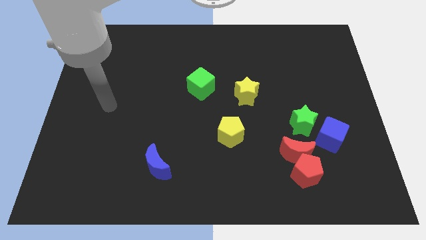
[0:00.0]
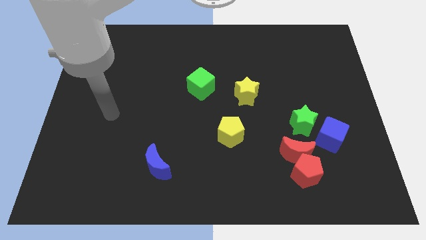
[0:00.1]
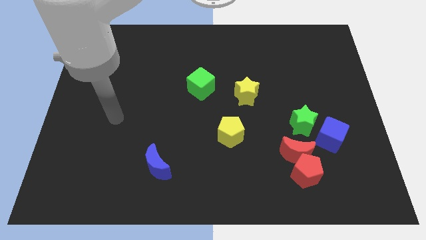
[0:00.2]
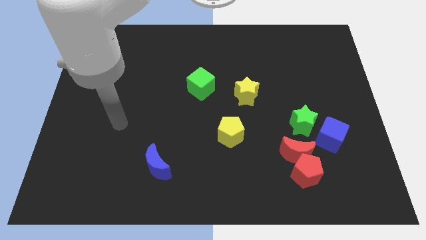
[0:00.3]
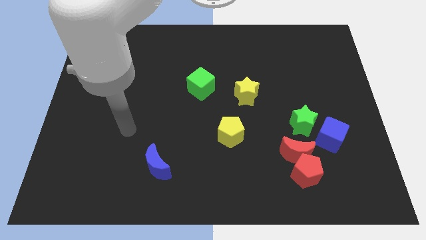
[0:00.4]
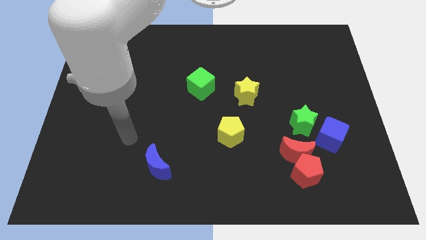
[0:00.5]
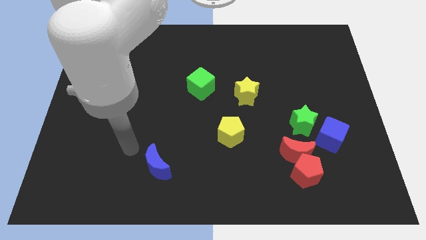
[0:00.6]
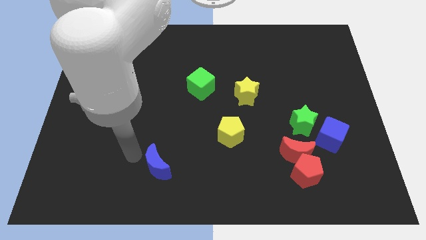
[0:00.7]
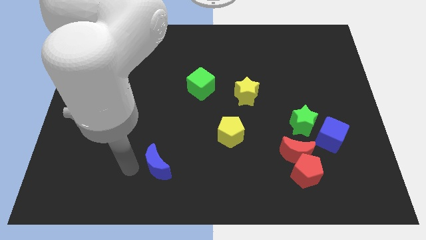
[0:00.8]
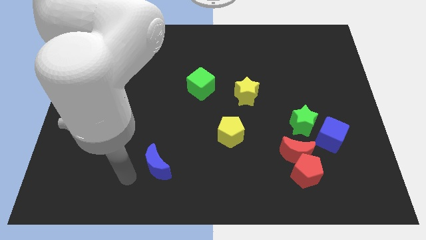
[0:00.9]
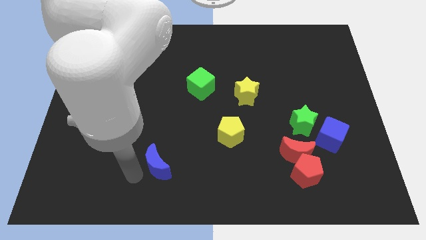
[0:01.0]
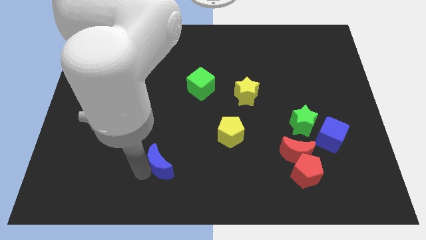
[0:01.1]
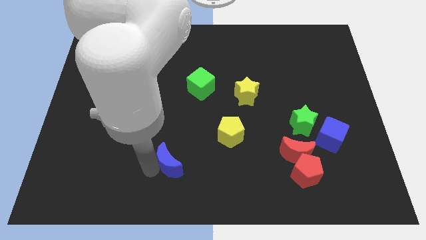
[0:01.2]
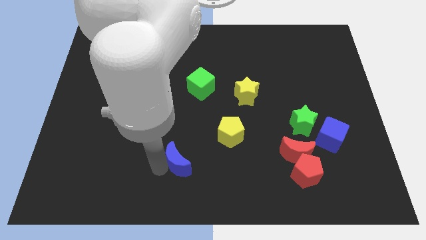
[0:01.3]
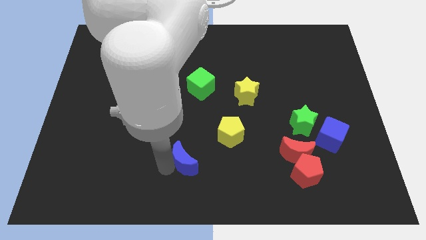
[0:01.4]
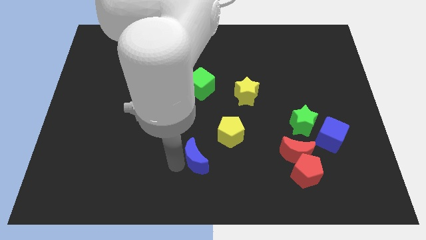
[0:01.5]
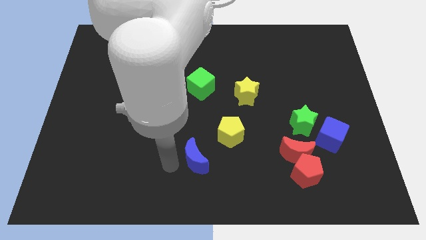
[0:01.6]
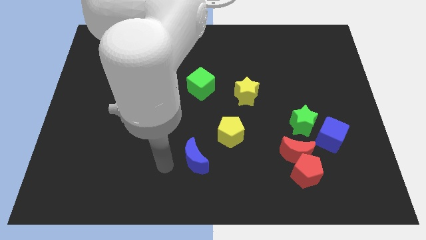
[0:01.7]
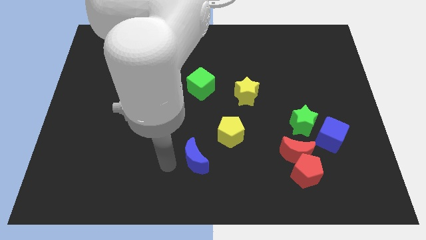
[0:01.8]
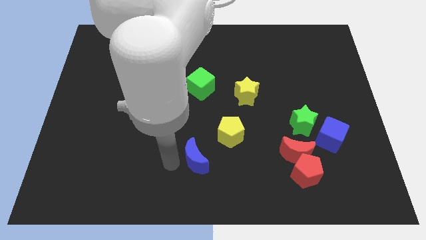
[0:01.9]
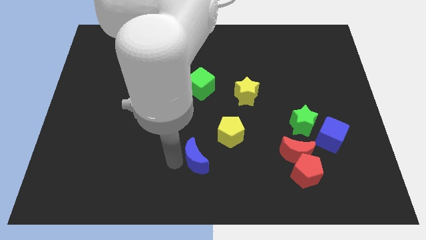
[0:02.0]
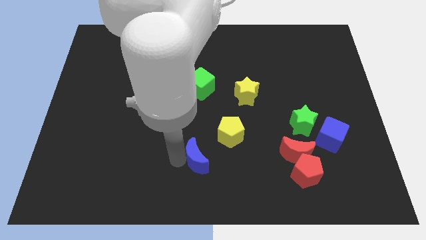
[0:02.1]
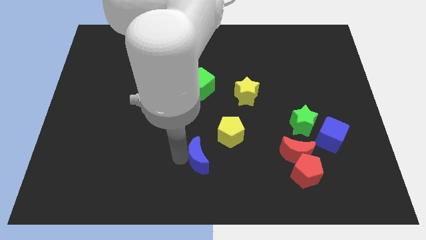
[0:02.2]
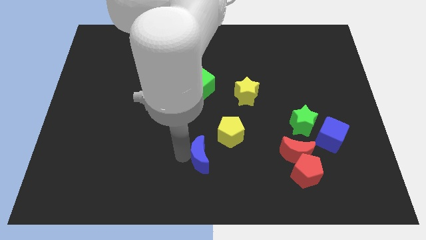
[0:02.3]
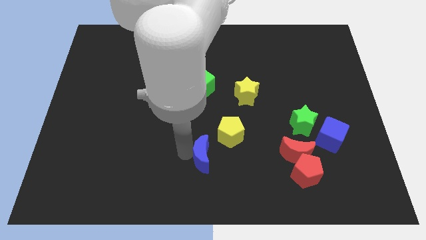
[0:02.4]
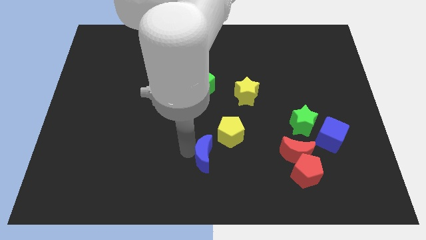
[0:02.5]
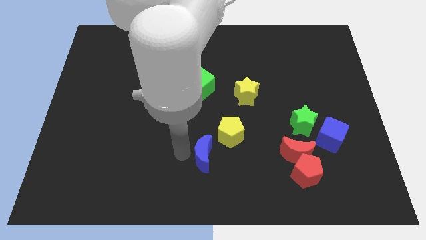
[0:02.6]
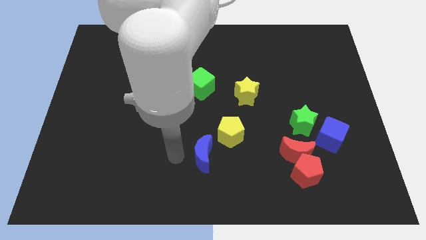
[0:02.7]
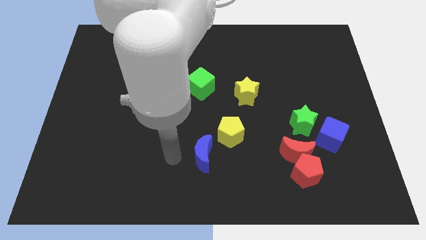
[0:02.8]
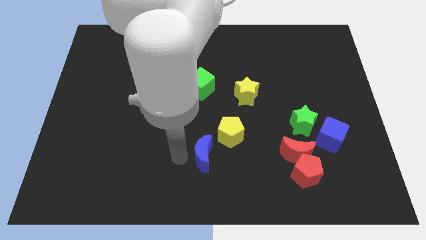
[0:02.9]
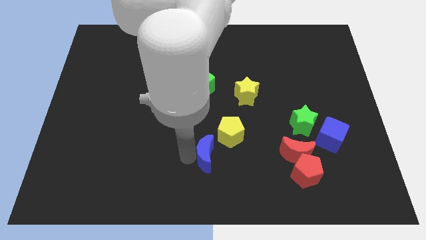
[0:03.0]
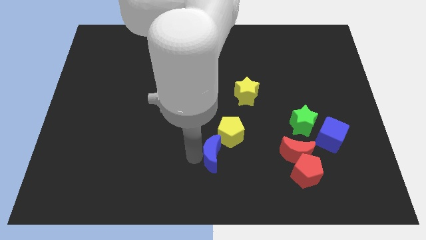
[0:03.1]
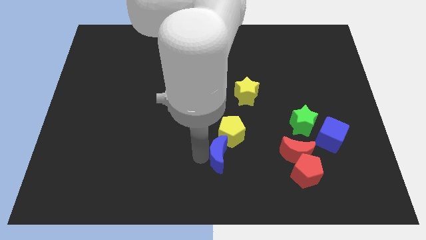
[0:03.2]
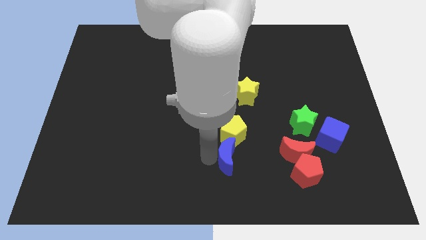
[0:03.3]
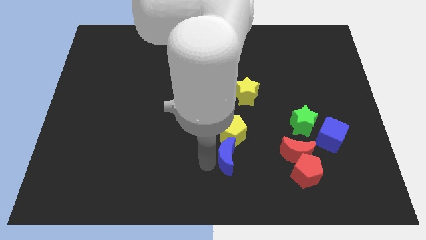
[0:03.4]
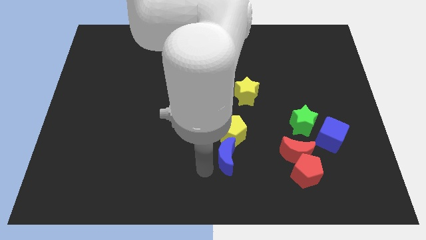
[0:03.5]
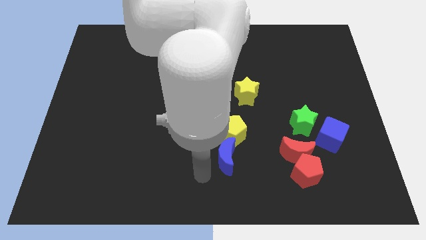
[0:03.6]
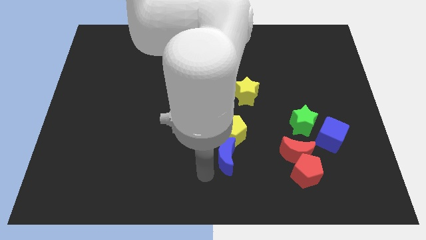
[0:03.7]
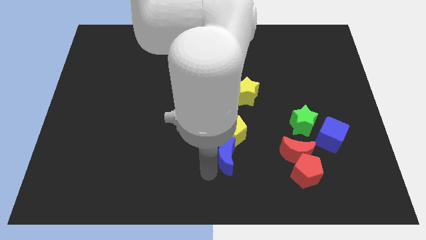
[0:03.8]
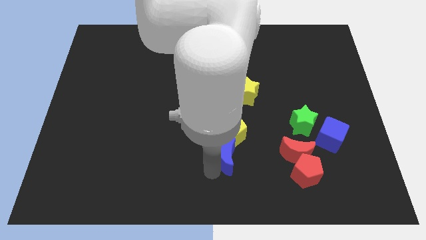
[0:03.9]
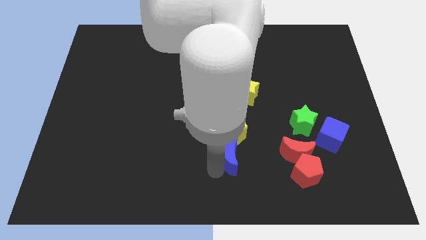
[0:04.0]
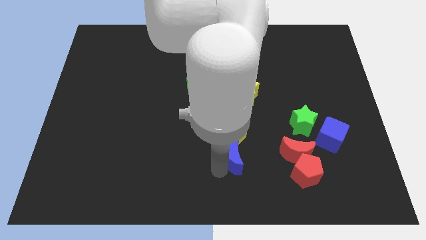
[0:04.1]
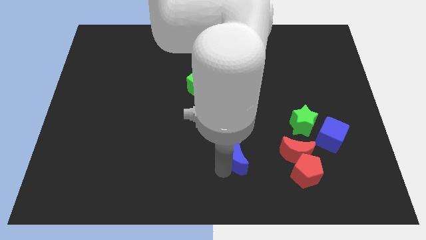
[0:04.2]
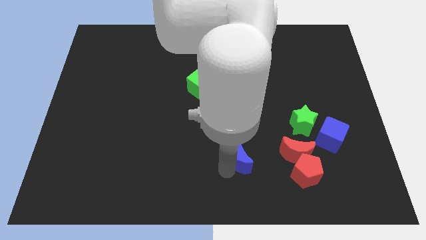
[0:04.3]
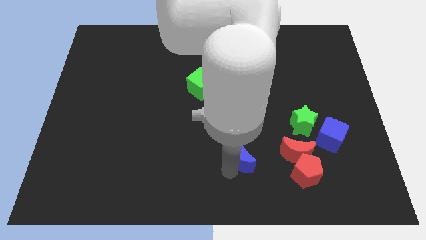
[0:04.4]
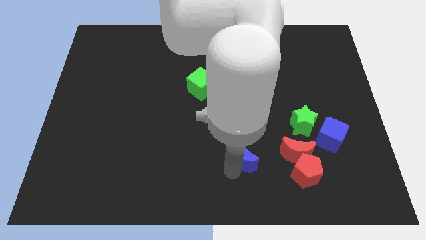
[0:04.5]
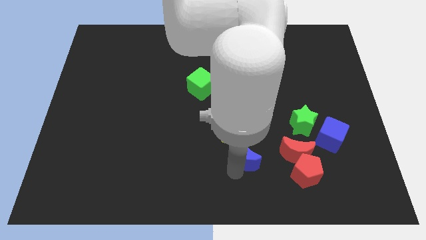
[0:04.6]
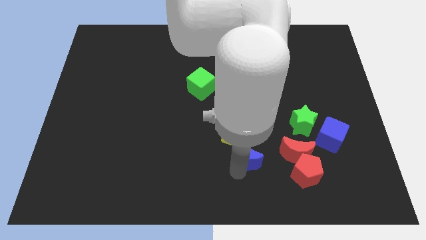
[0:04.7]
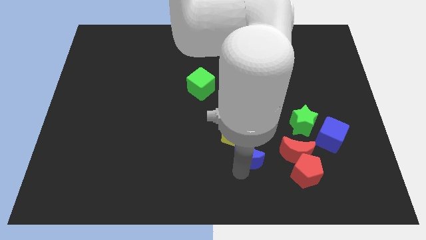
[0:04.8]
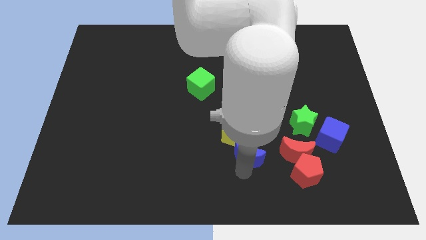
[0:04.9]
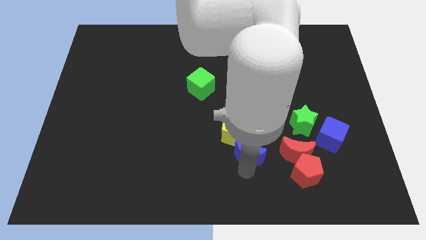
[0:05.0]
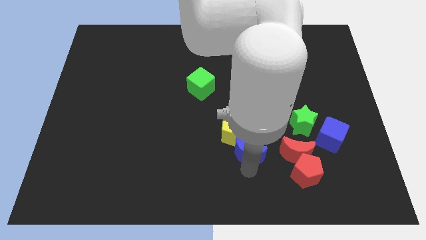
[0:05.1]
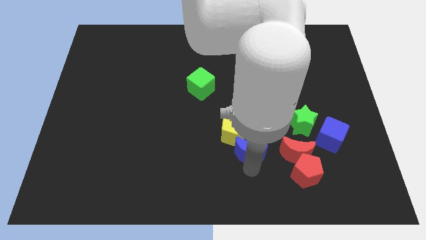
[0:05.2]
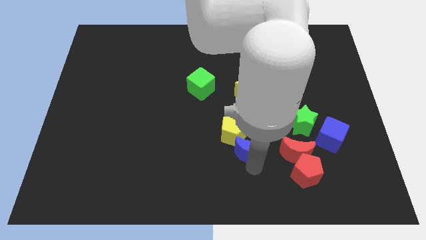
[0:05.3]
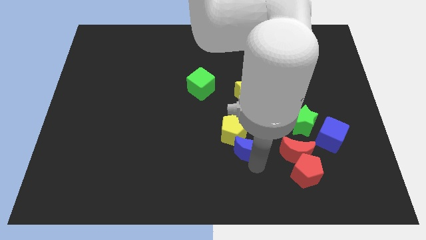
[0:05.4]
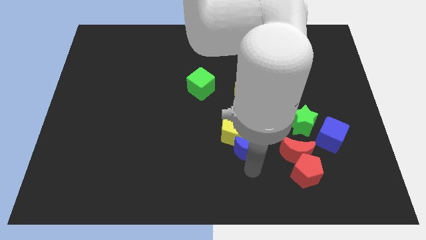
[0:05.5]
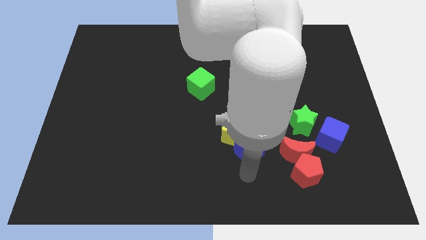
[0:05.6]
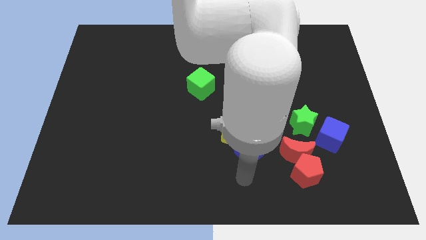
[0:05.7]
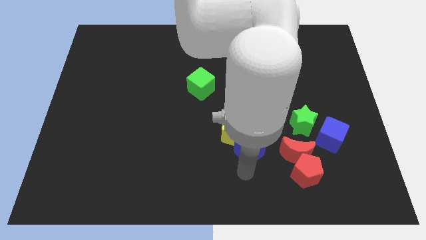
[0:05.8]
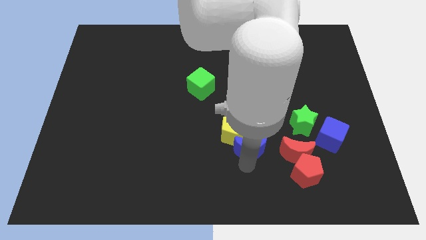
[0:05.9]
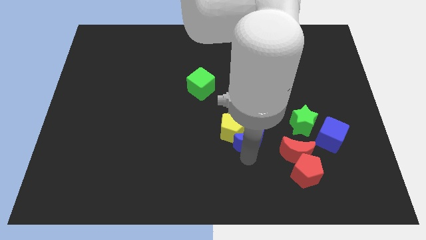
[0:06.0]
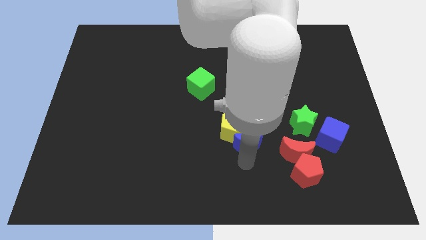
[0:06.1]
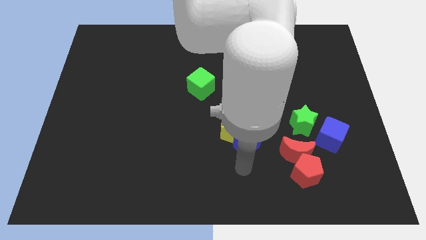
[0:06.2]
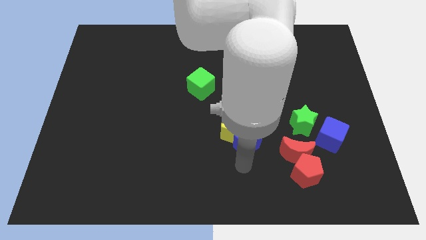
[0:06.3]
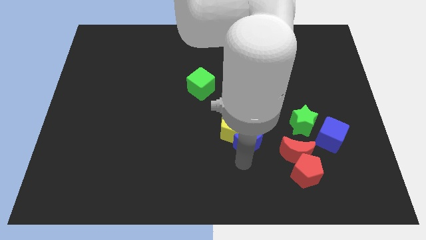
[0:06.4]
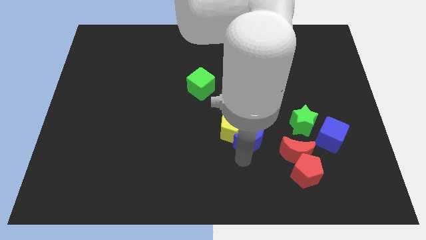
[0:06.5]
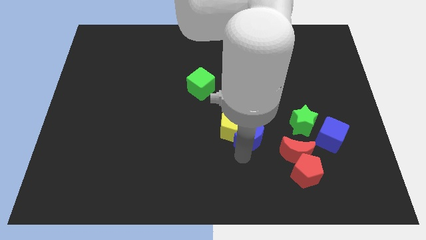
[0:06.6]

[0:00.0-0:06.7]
move the blue moon just left of the green star

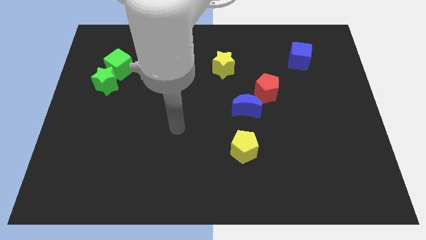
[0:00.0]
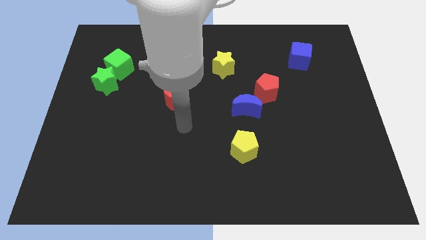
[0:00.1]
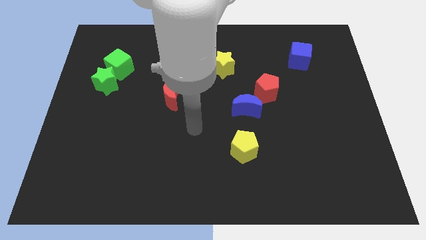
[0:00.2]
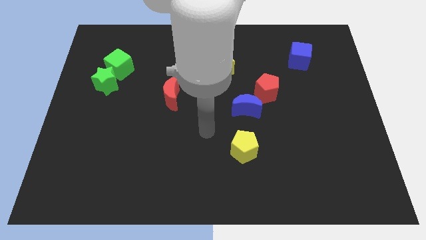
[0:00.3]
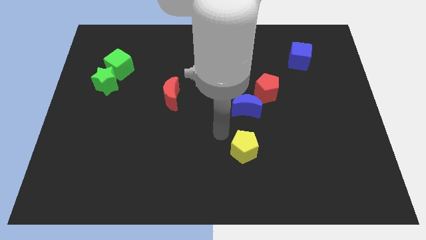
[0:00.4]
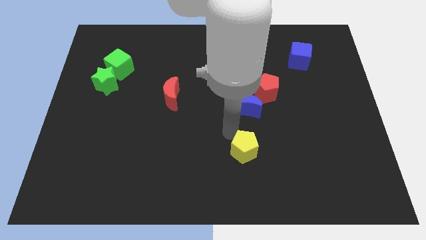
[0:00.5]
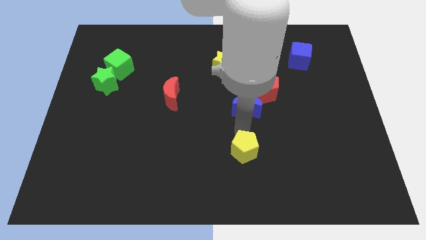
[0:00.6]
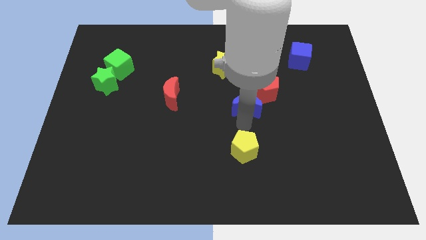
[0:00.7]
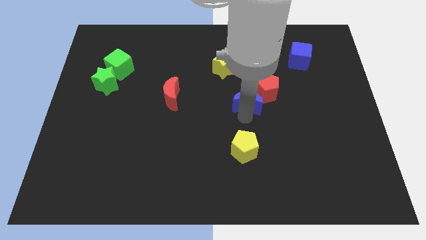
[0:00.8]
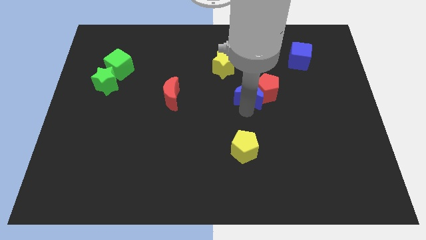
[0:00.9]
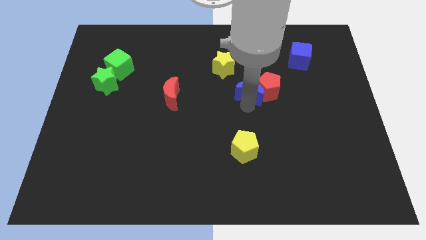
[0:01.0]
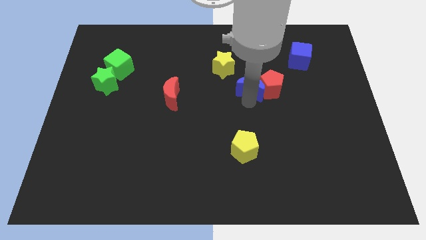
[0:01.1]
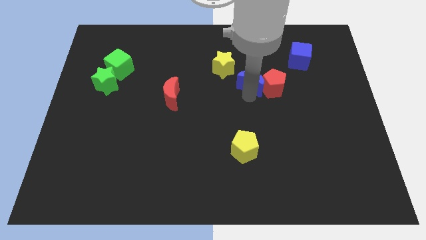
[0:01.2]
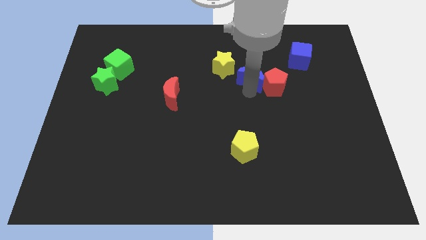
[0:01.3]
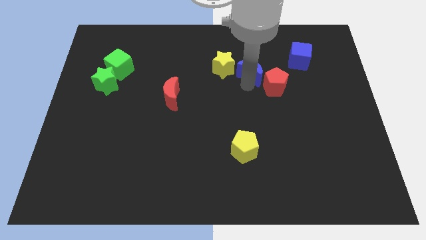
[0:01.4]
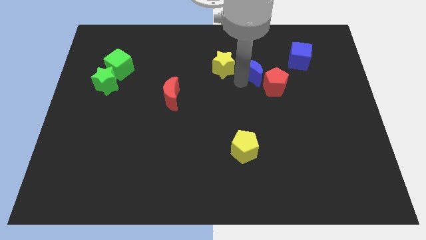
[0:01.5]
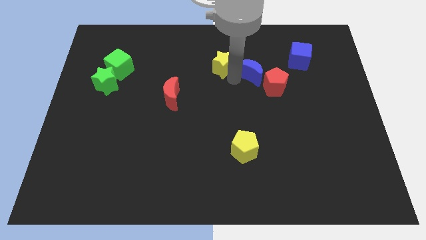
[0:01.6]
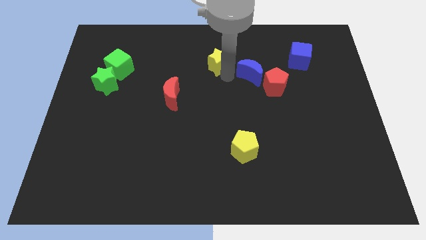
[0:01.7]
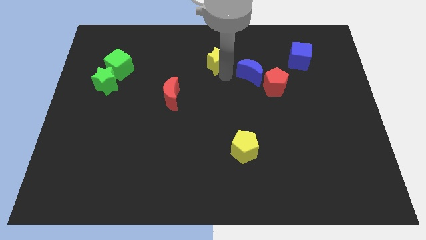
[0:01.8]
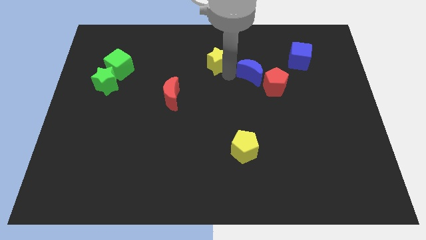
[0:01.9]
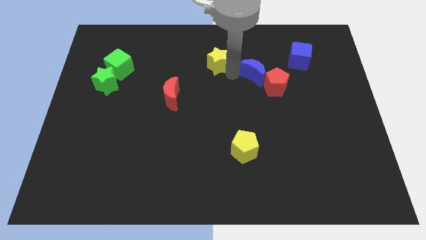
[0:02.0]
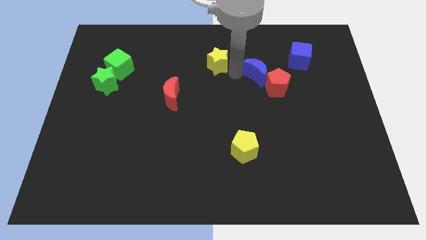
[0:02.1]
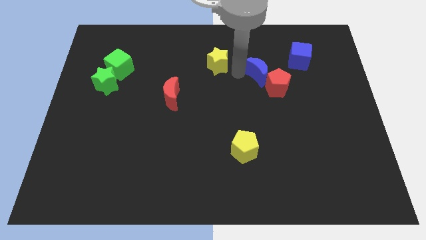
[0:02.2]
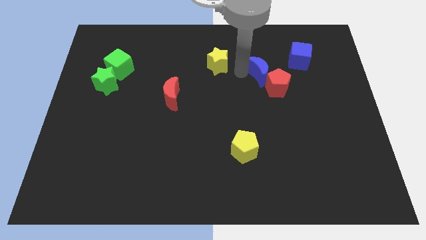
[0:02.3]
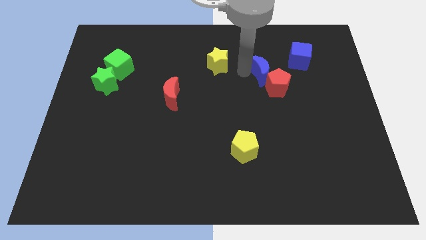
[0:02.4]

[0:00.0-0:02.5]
push the blue moon to the bottom left of the blue cube
